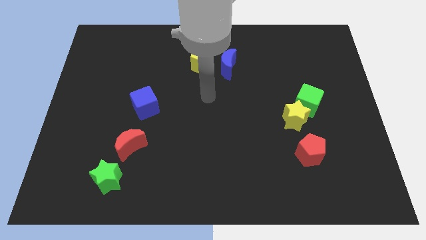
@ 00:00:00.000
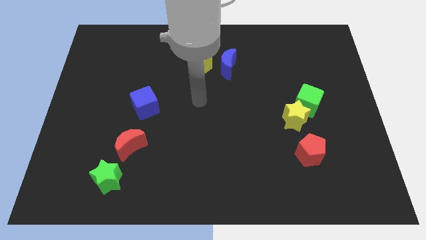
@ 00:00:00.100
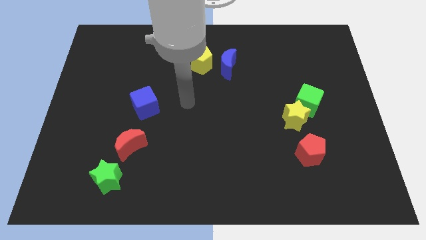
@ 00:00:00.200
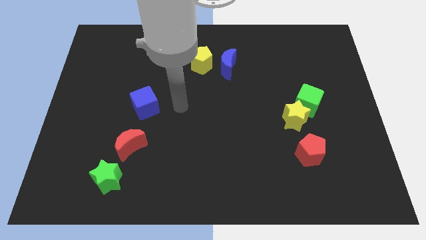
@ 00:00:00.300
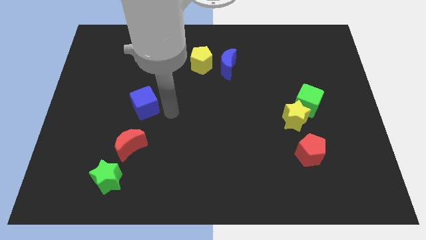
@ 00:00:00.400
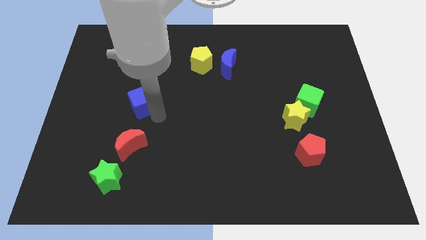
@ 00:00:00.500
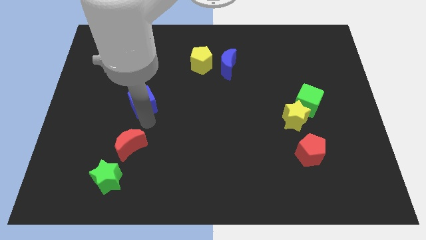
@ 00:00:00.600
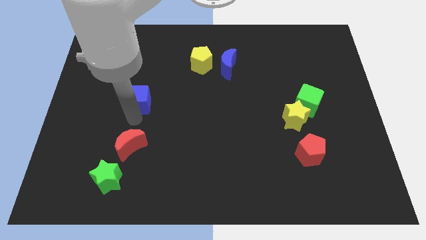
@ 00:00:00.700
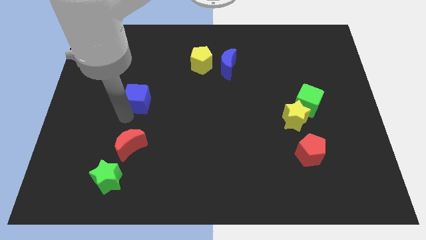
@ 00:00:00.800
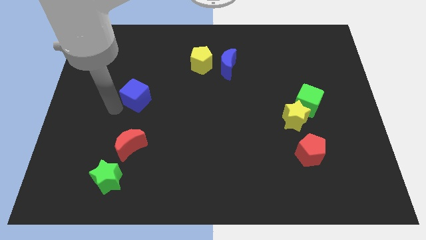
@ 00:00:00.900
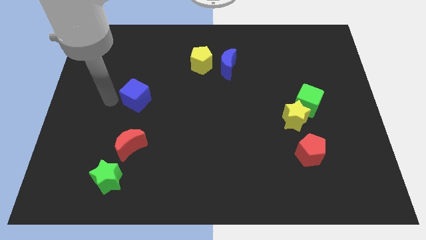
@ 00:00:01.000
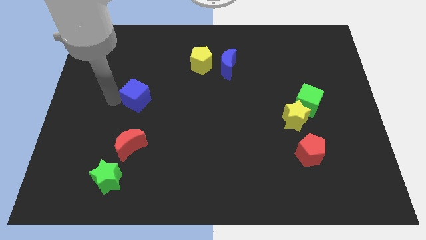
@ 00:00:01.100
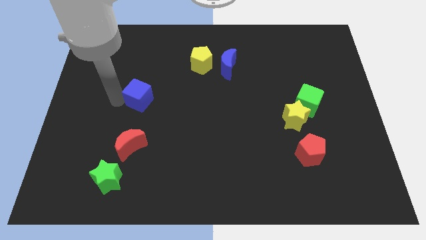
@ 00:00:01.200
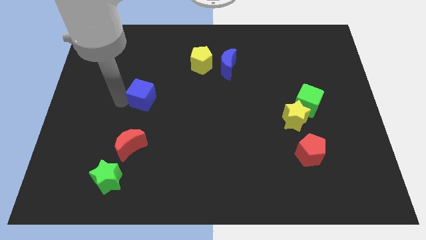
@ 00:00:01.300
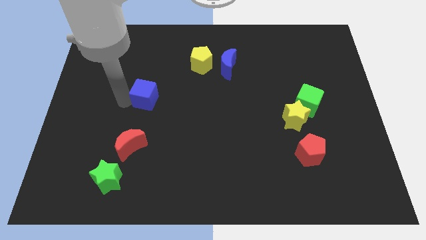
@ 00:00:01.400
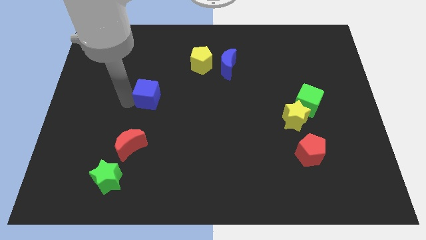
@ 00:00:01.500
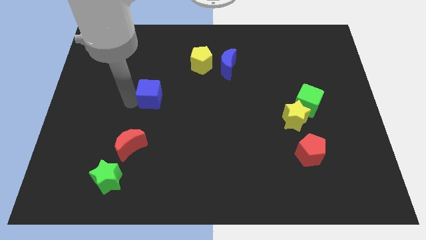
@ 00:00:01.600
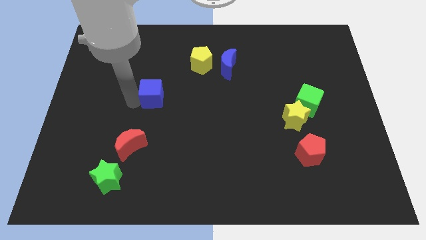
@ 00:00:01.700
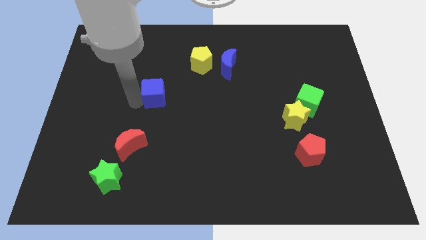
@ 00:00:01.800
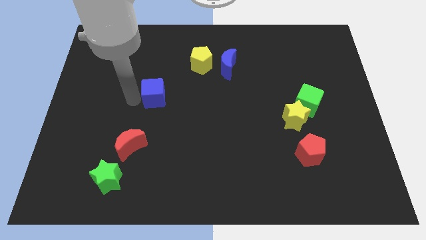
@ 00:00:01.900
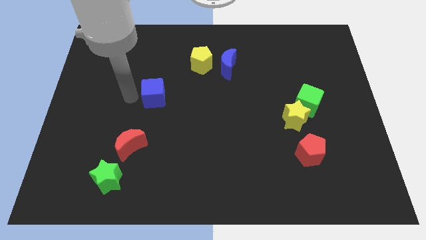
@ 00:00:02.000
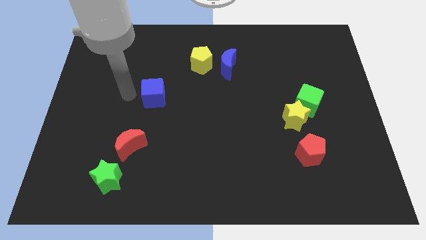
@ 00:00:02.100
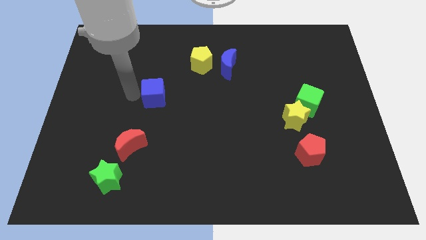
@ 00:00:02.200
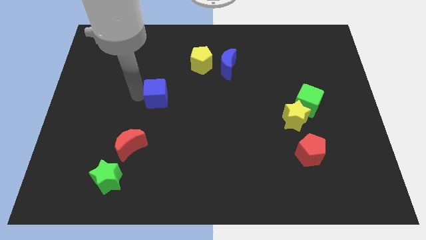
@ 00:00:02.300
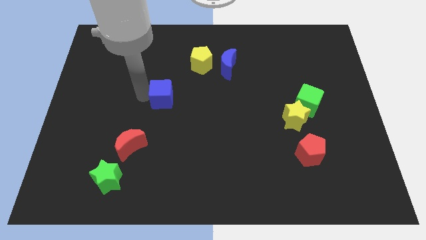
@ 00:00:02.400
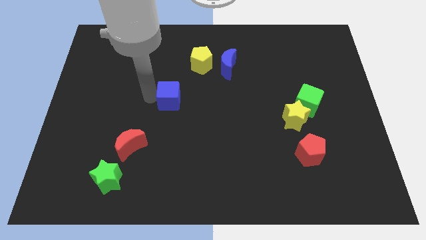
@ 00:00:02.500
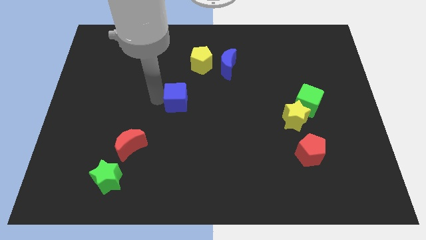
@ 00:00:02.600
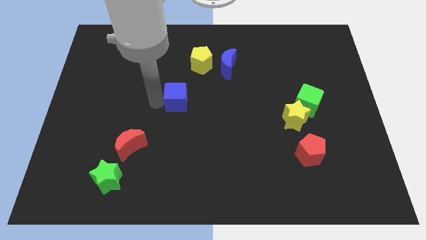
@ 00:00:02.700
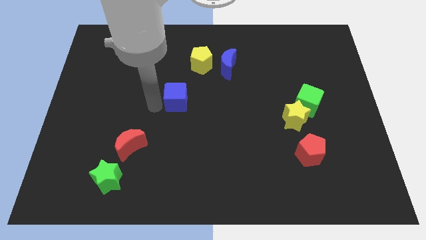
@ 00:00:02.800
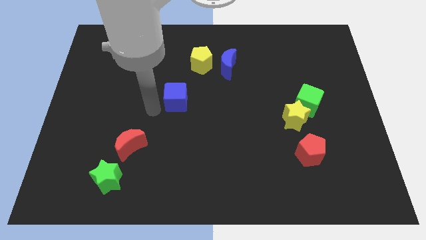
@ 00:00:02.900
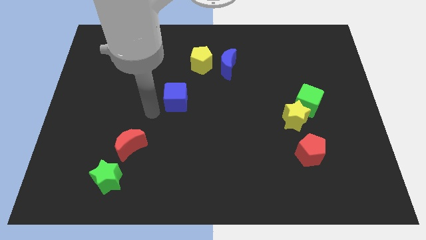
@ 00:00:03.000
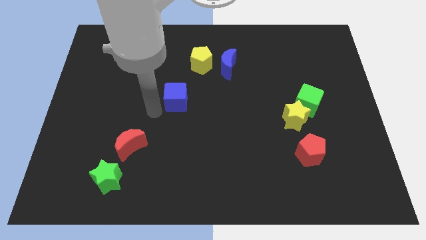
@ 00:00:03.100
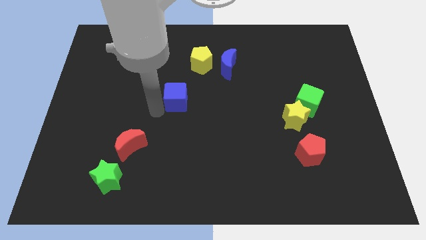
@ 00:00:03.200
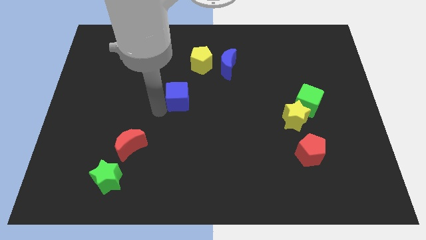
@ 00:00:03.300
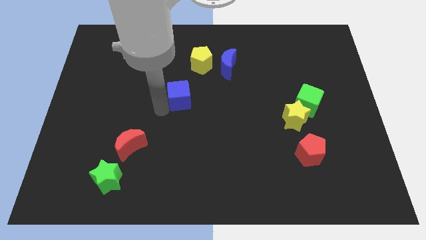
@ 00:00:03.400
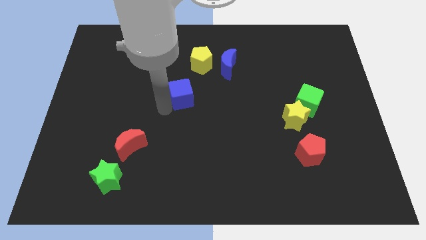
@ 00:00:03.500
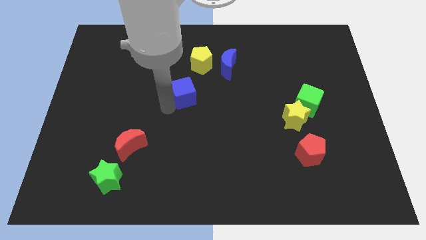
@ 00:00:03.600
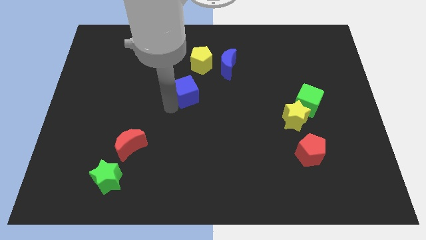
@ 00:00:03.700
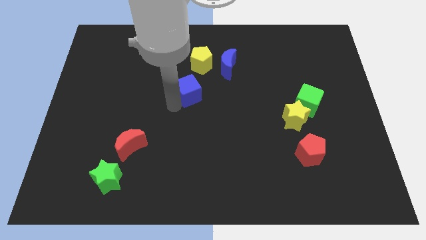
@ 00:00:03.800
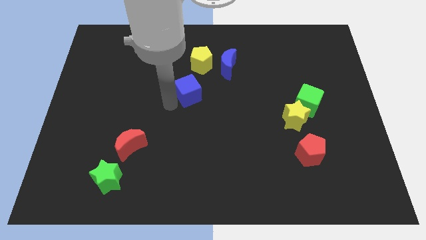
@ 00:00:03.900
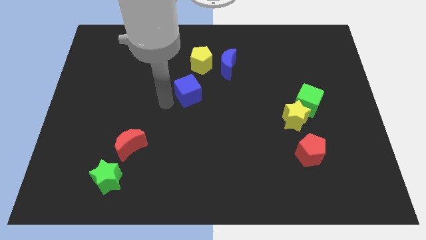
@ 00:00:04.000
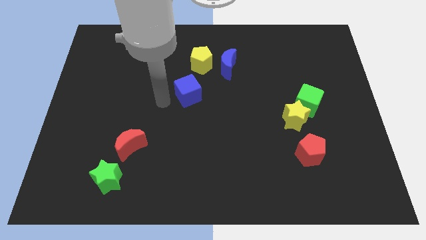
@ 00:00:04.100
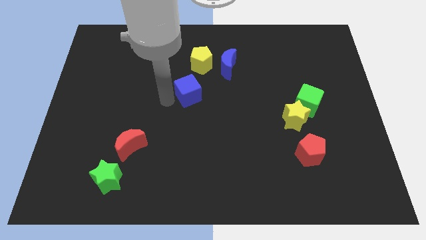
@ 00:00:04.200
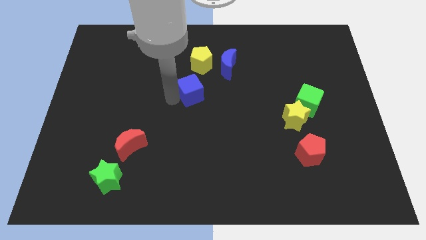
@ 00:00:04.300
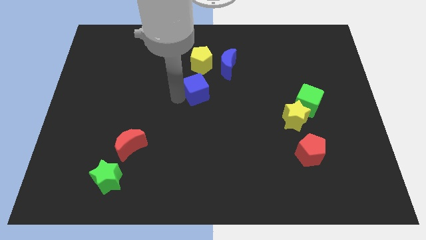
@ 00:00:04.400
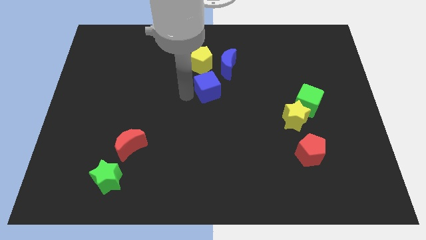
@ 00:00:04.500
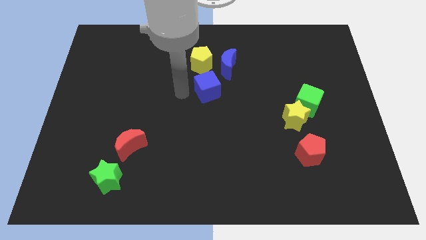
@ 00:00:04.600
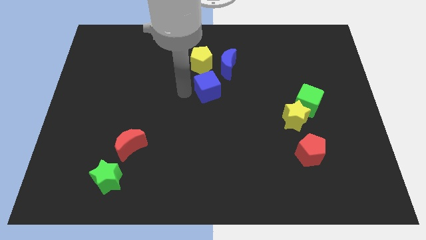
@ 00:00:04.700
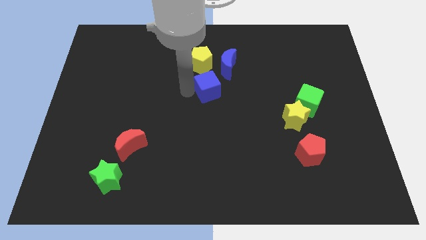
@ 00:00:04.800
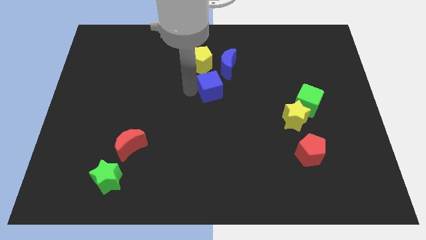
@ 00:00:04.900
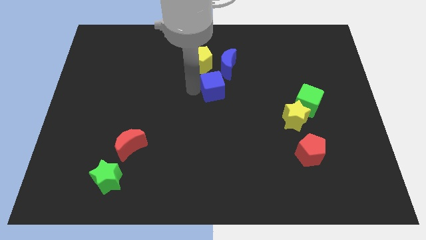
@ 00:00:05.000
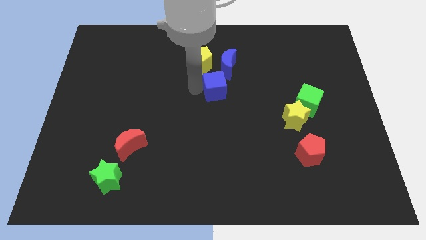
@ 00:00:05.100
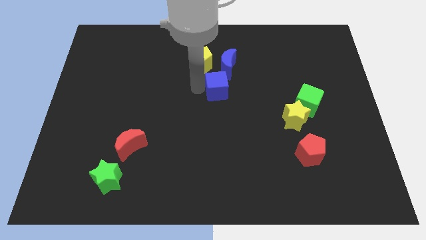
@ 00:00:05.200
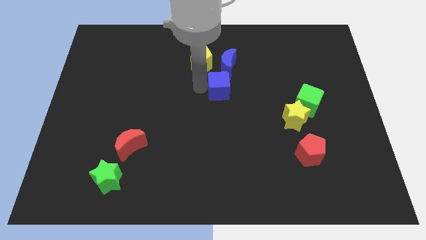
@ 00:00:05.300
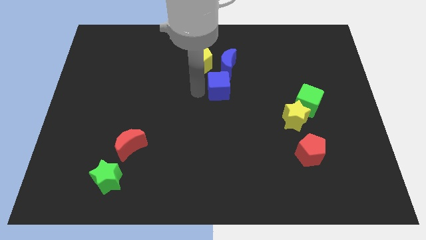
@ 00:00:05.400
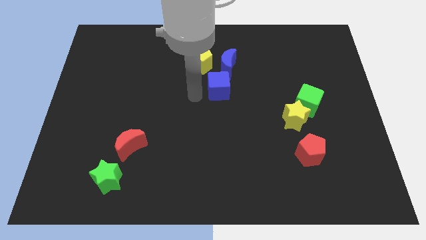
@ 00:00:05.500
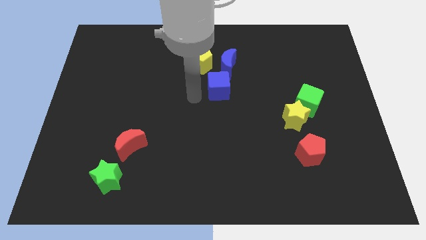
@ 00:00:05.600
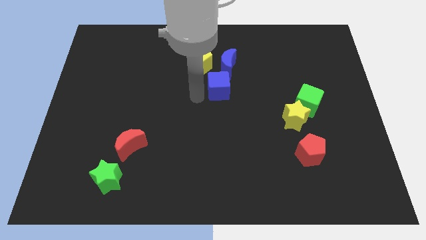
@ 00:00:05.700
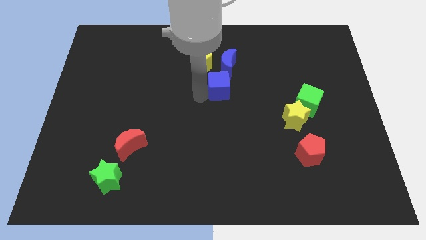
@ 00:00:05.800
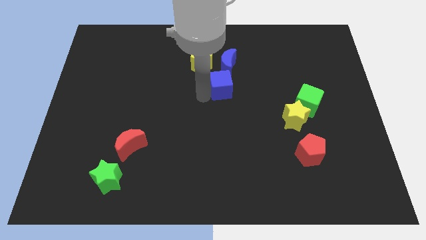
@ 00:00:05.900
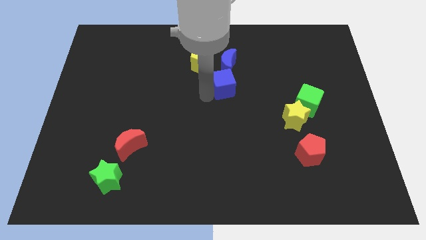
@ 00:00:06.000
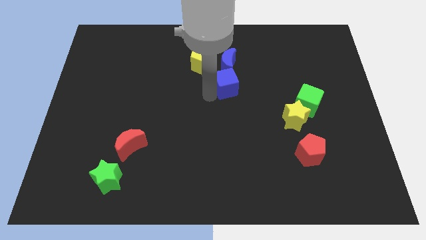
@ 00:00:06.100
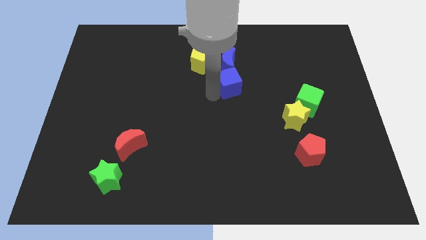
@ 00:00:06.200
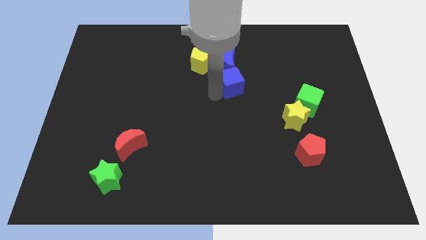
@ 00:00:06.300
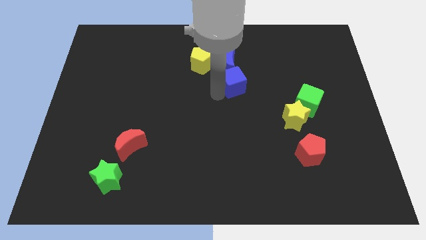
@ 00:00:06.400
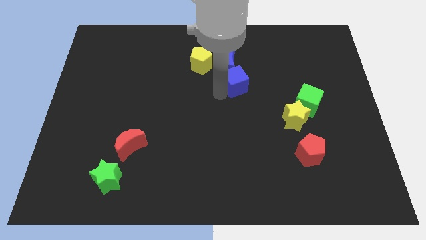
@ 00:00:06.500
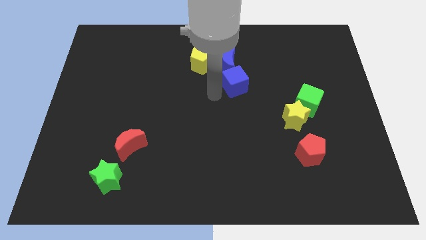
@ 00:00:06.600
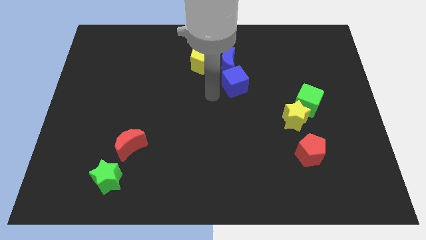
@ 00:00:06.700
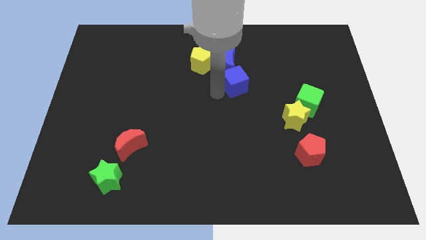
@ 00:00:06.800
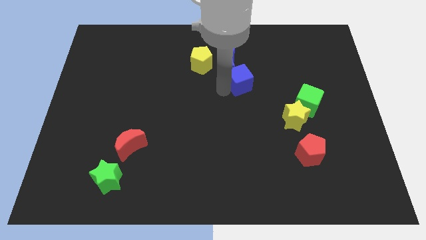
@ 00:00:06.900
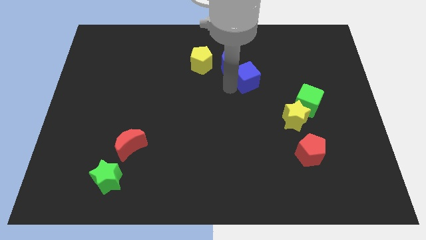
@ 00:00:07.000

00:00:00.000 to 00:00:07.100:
put the blue cube to the right of the blue moon
